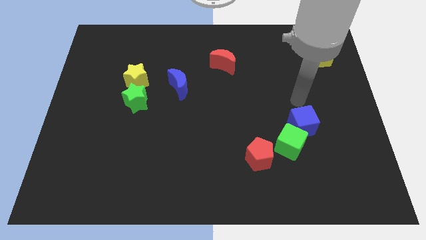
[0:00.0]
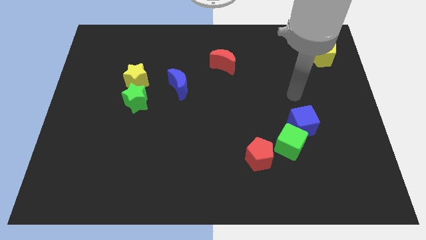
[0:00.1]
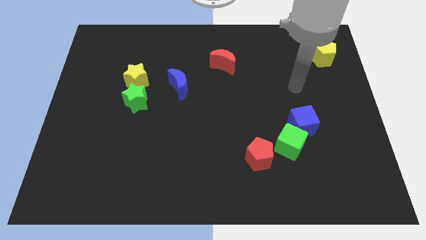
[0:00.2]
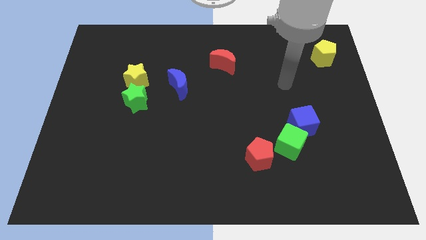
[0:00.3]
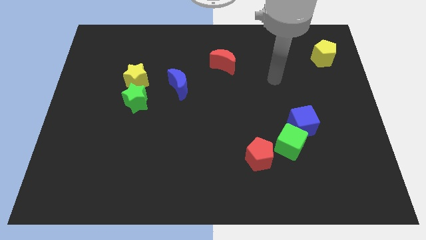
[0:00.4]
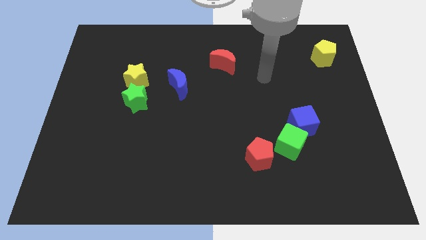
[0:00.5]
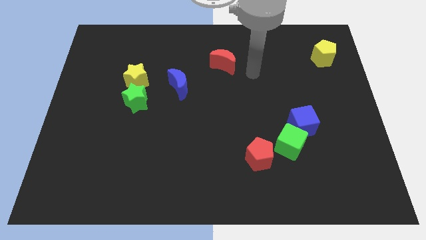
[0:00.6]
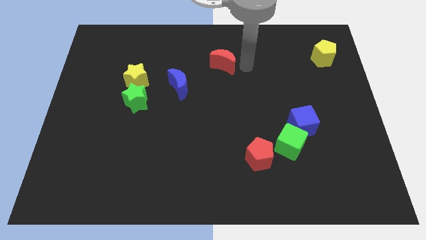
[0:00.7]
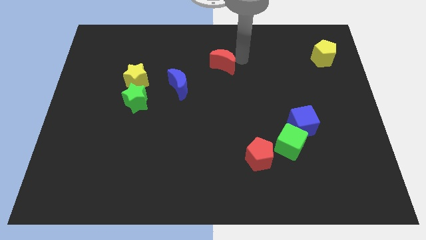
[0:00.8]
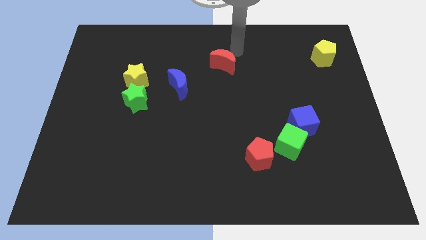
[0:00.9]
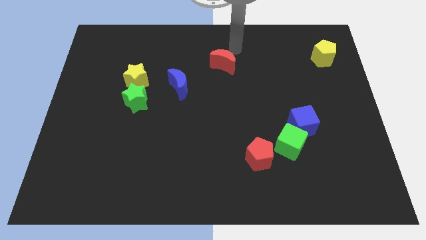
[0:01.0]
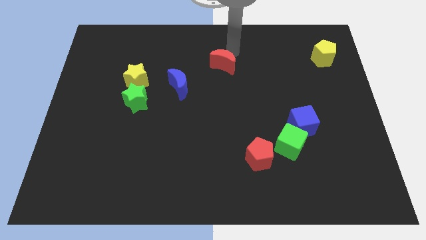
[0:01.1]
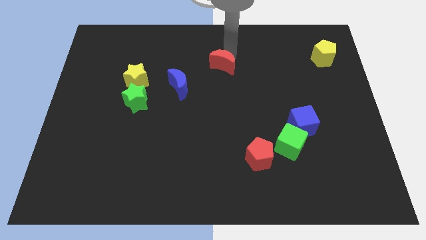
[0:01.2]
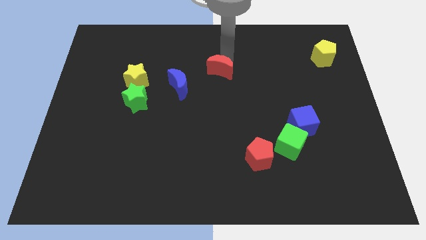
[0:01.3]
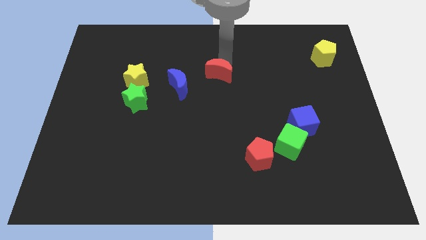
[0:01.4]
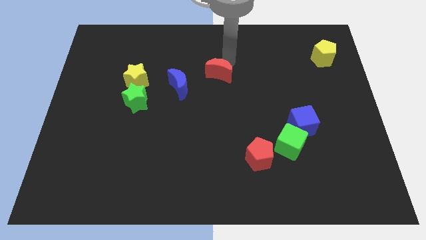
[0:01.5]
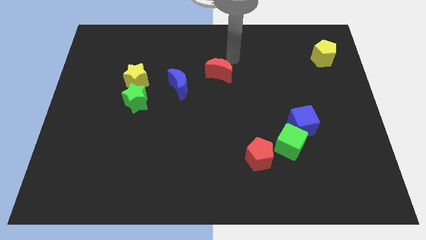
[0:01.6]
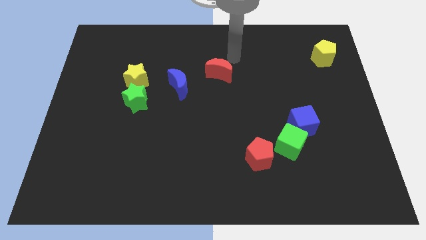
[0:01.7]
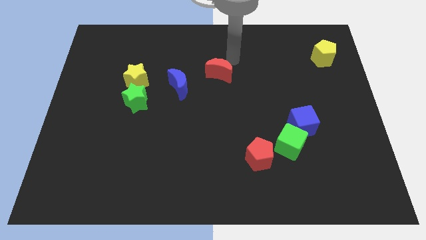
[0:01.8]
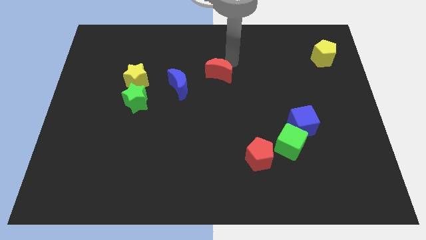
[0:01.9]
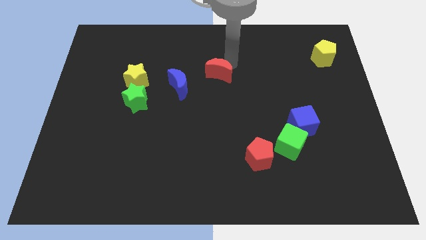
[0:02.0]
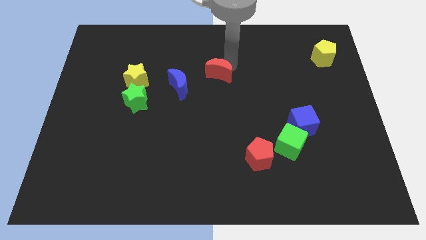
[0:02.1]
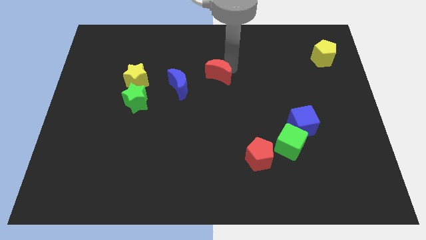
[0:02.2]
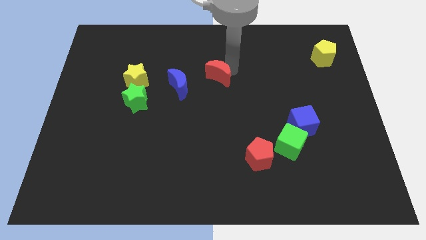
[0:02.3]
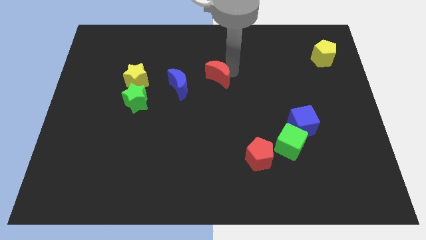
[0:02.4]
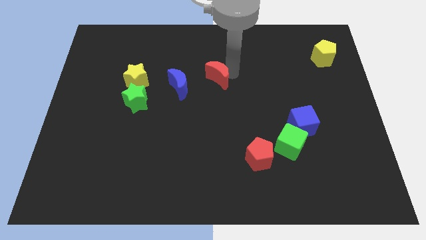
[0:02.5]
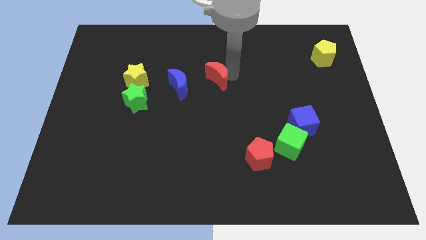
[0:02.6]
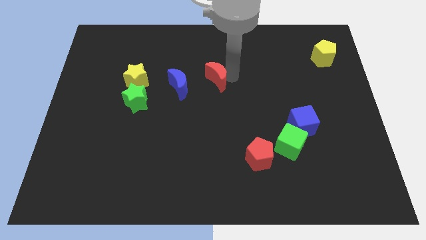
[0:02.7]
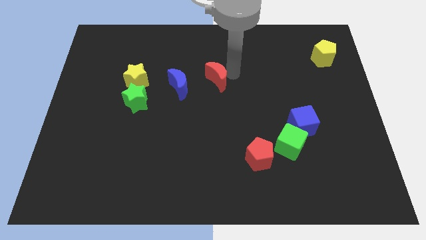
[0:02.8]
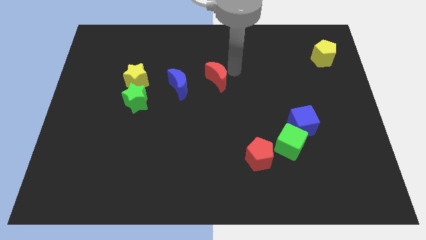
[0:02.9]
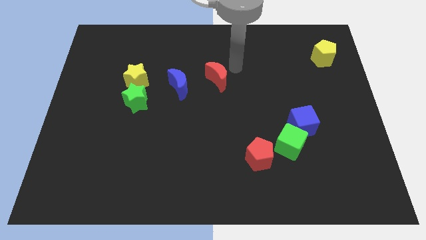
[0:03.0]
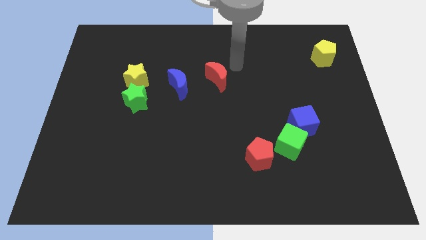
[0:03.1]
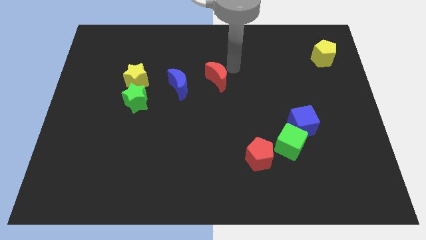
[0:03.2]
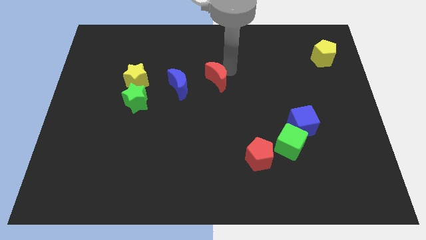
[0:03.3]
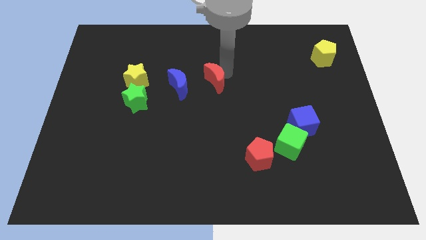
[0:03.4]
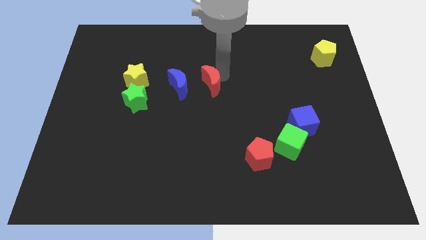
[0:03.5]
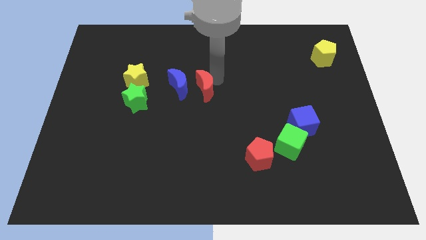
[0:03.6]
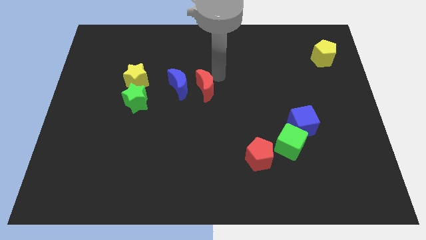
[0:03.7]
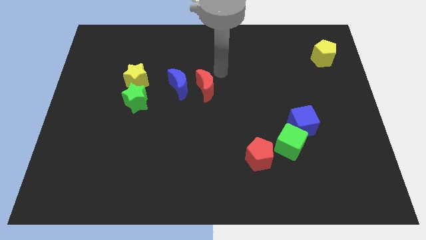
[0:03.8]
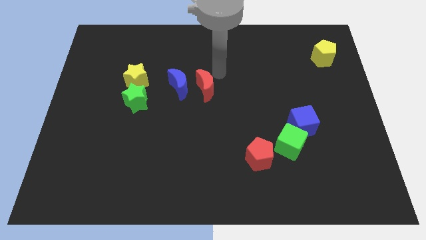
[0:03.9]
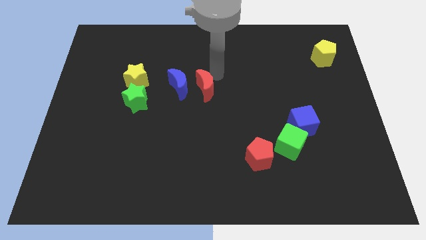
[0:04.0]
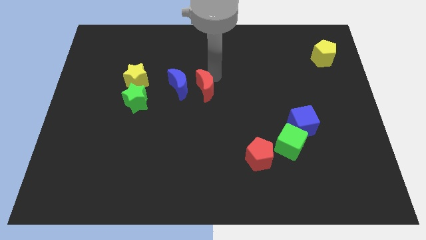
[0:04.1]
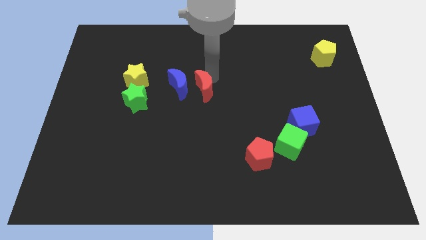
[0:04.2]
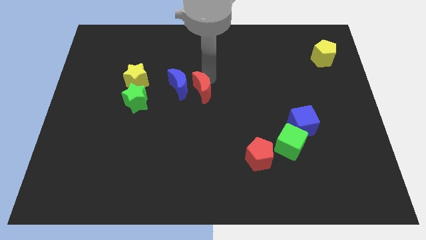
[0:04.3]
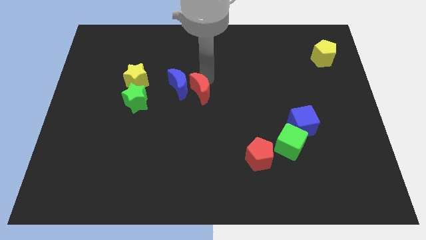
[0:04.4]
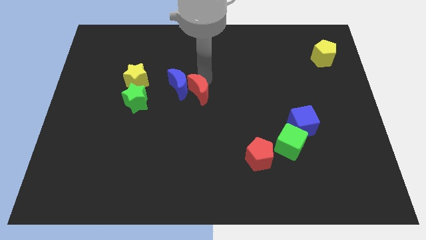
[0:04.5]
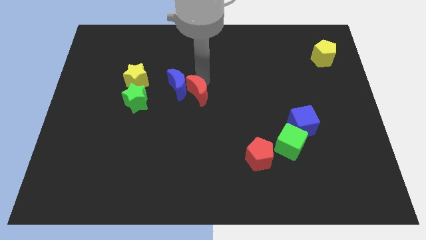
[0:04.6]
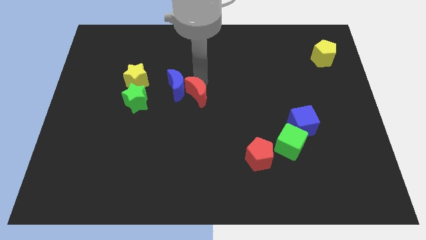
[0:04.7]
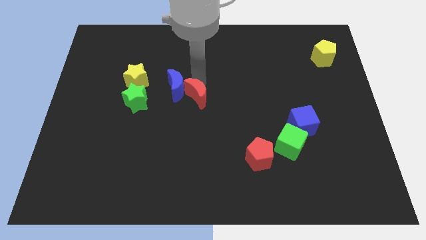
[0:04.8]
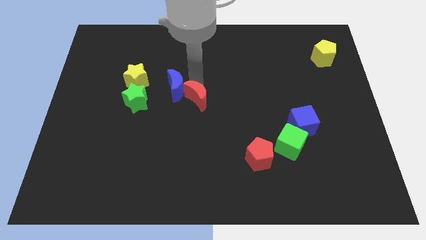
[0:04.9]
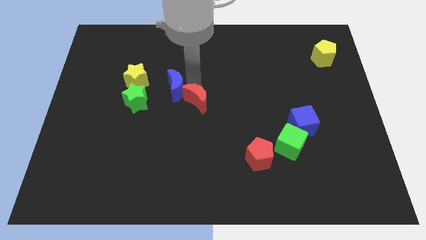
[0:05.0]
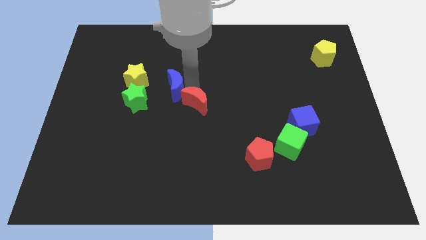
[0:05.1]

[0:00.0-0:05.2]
push the red moon below the blue moon

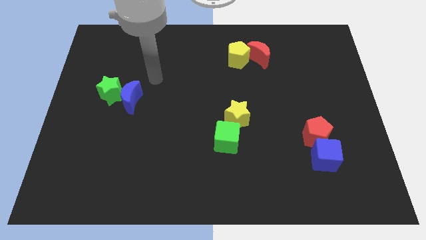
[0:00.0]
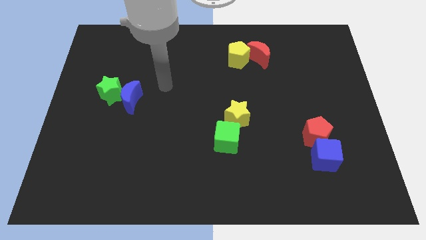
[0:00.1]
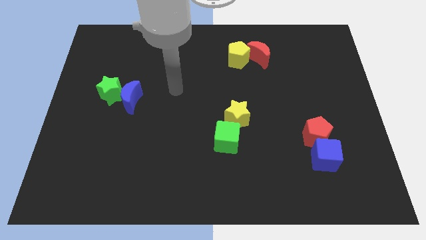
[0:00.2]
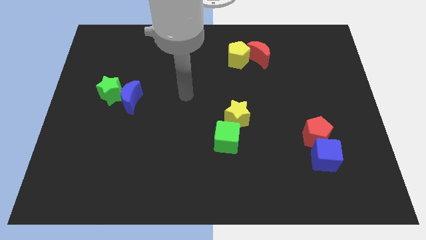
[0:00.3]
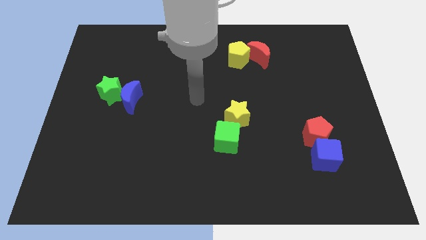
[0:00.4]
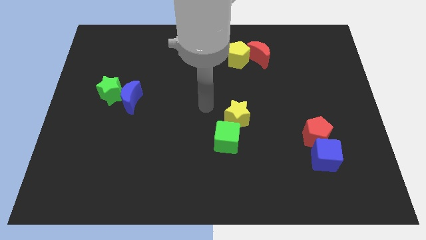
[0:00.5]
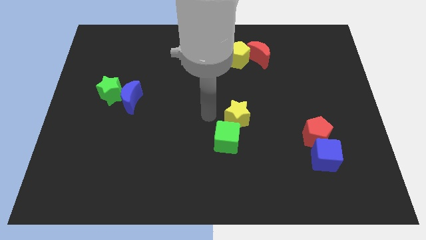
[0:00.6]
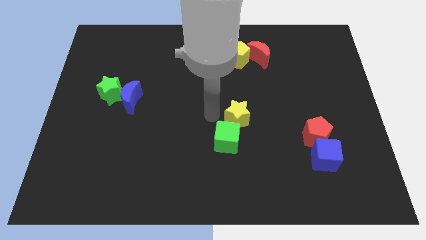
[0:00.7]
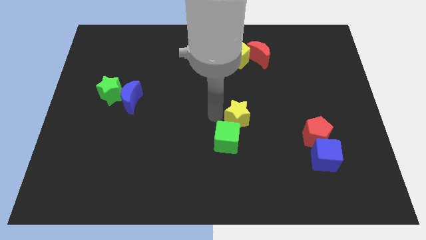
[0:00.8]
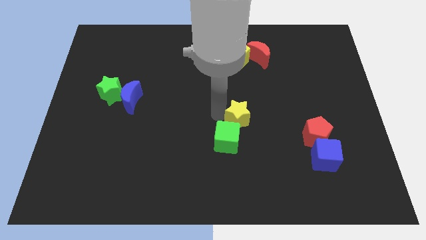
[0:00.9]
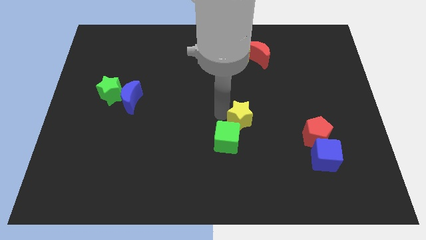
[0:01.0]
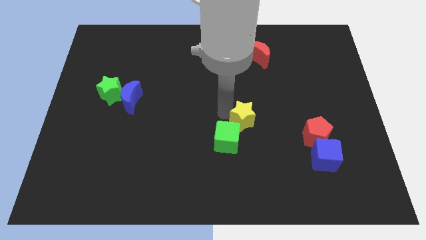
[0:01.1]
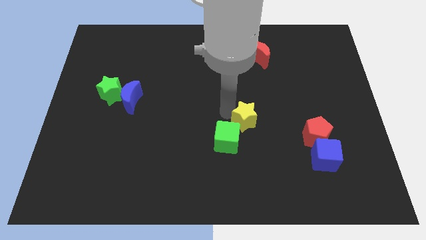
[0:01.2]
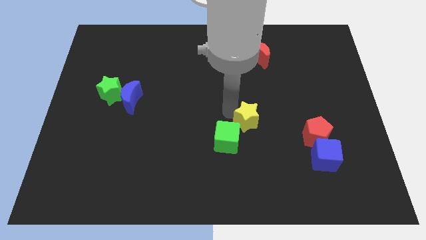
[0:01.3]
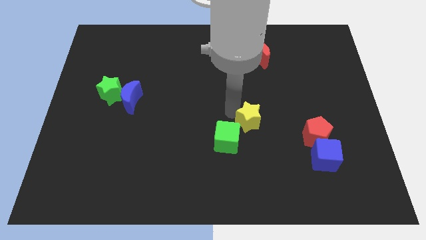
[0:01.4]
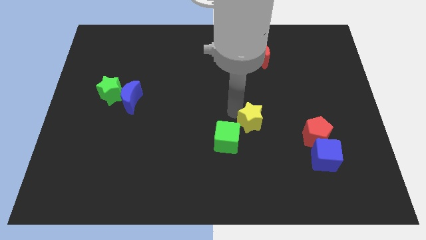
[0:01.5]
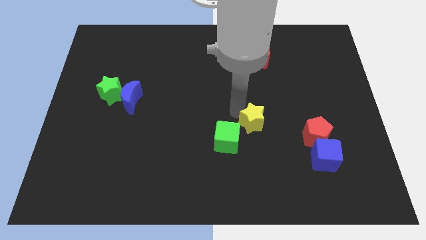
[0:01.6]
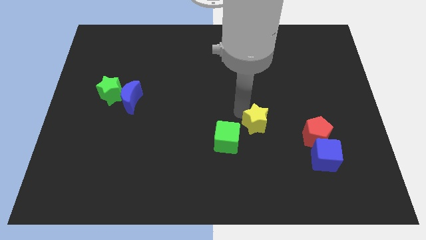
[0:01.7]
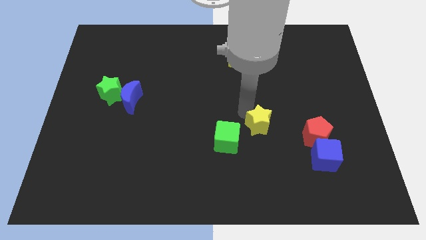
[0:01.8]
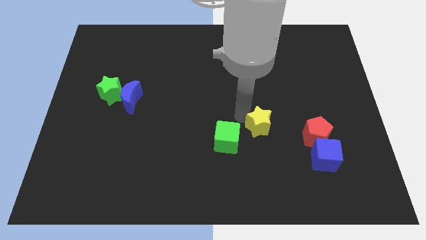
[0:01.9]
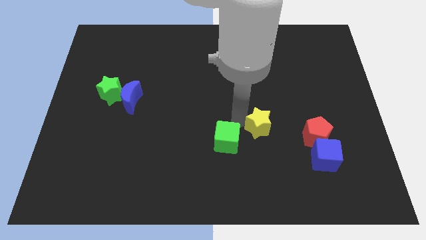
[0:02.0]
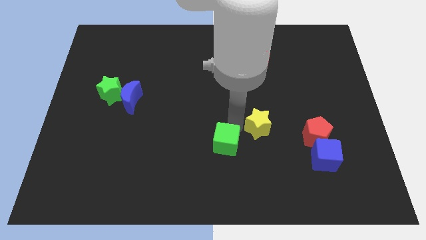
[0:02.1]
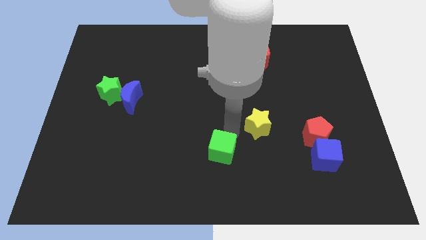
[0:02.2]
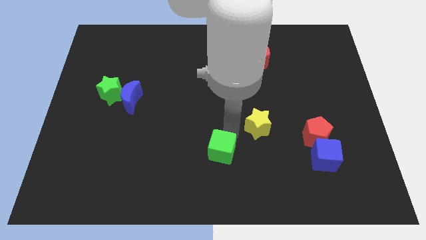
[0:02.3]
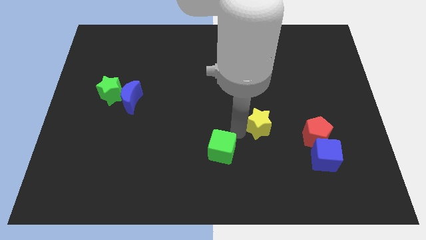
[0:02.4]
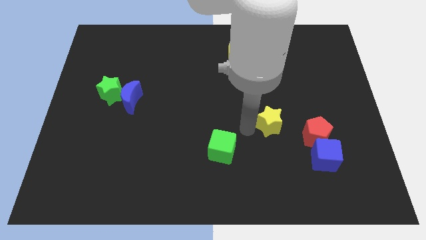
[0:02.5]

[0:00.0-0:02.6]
move the yellow star to the top left of the red pentagon
